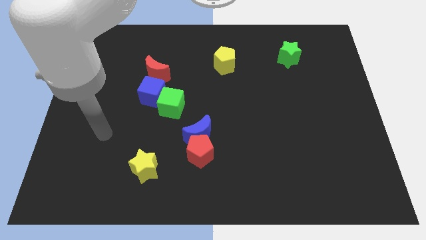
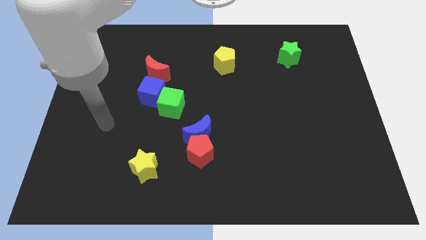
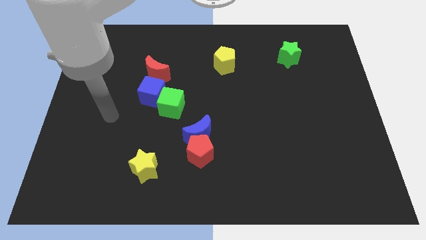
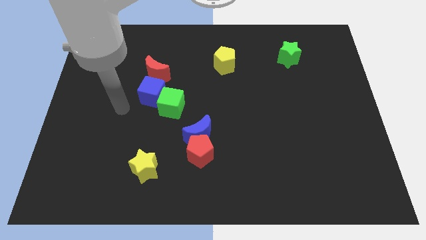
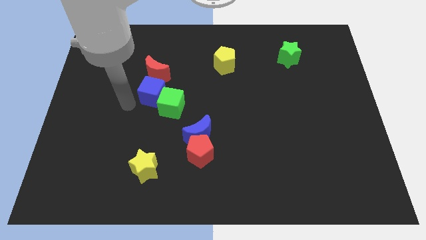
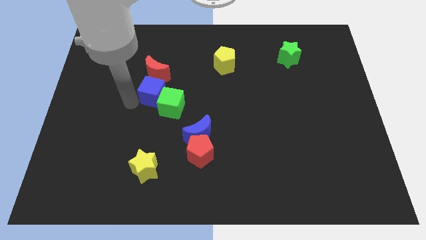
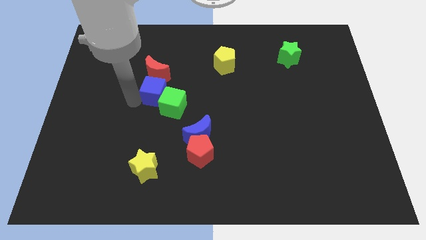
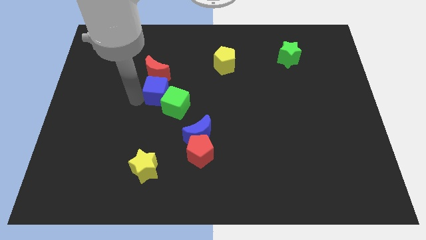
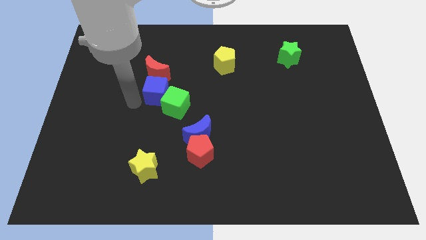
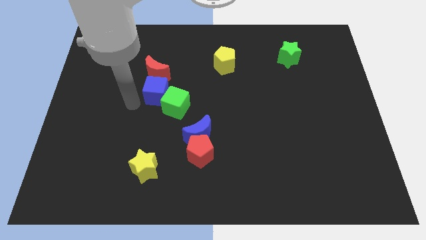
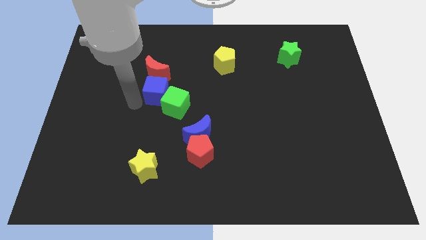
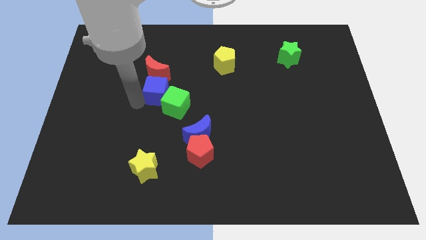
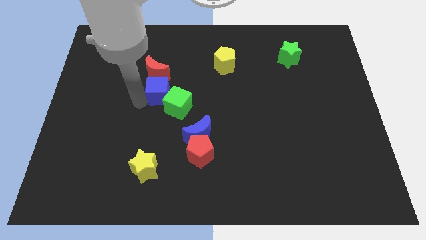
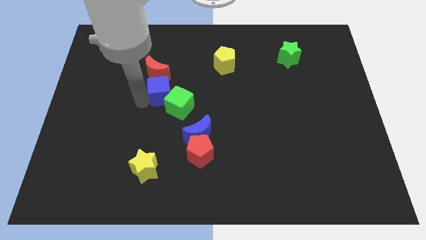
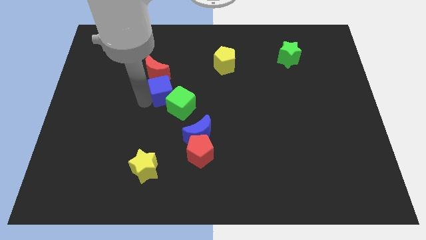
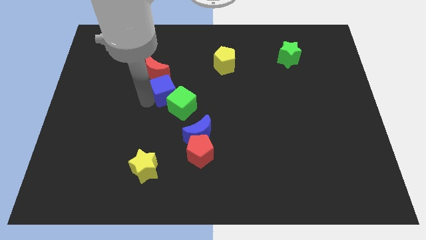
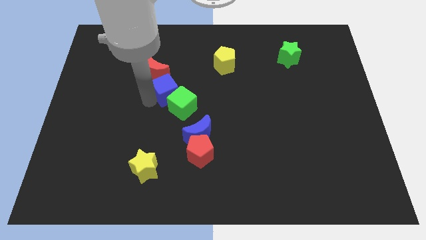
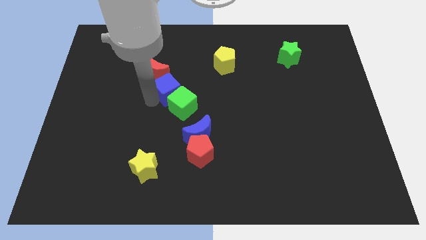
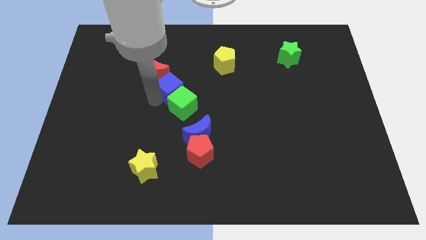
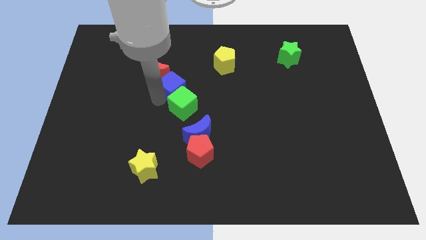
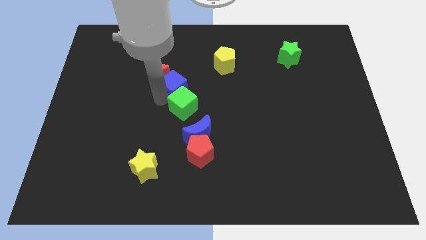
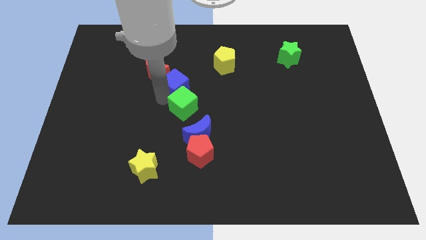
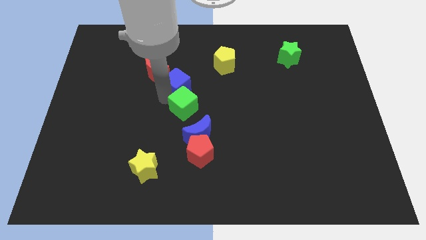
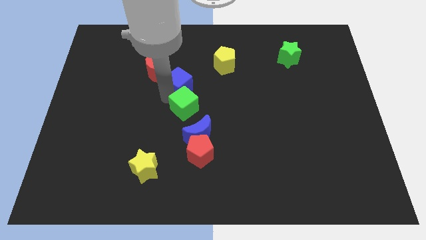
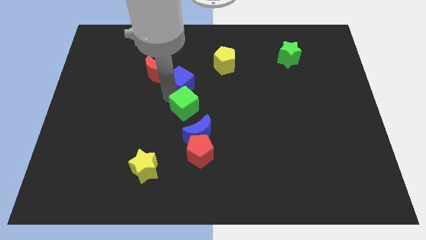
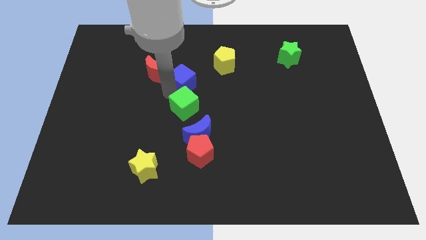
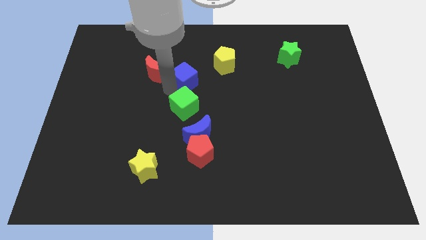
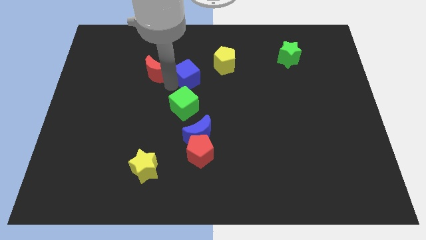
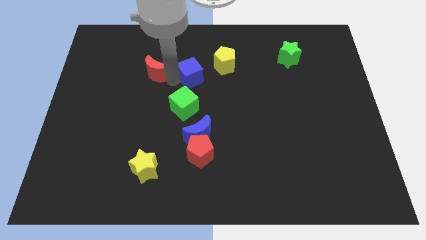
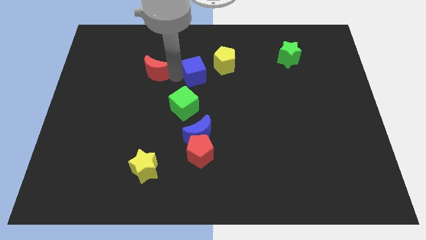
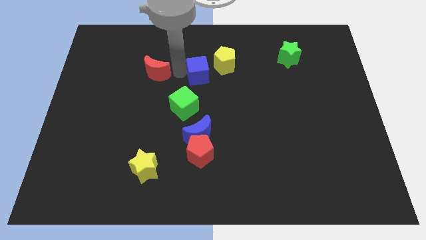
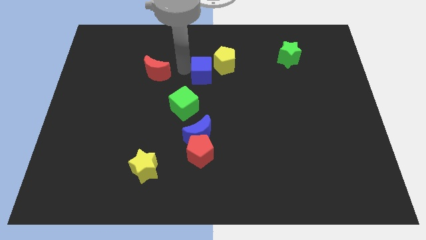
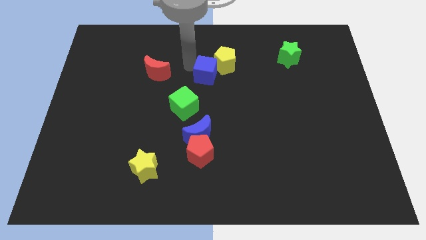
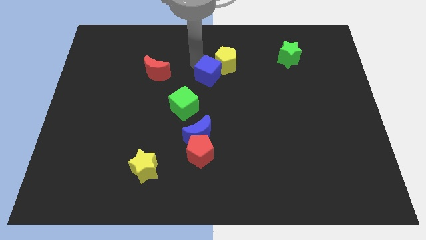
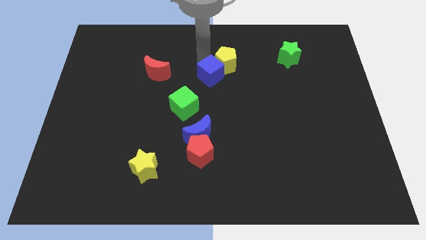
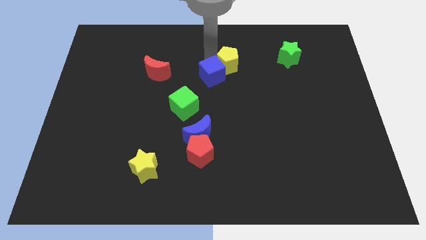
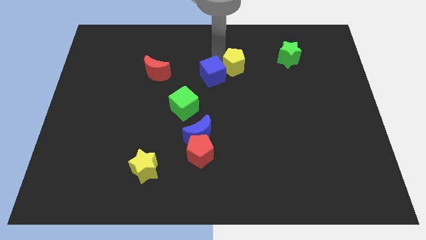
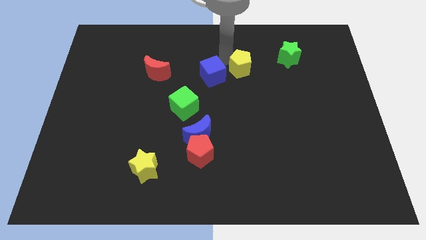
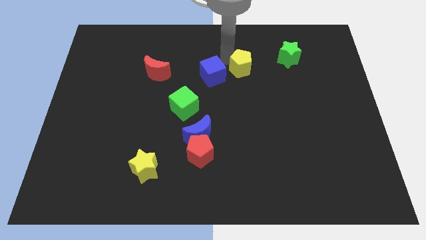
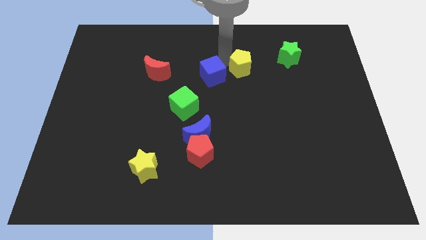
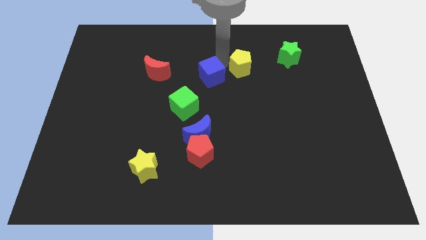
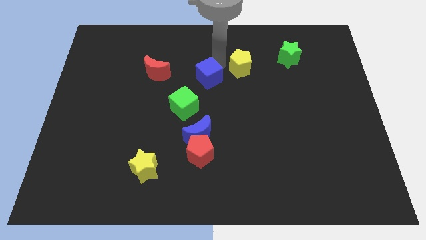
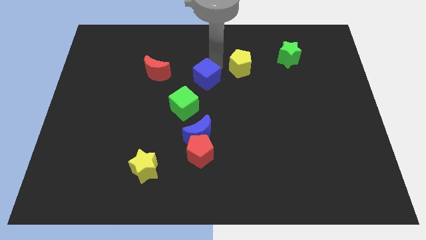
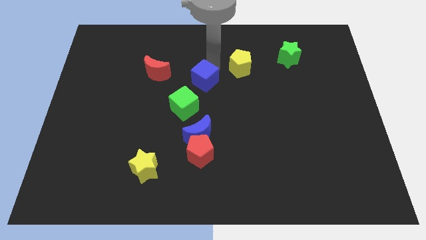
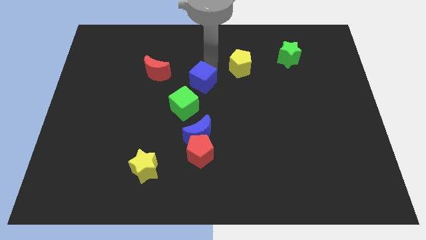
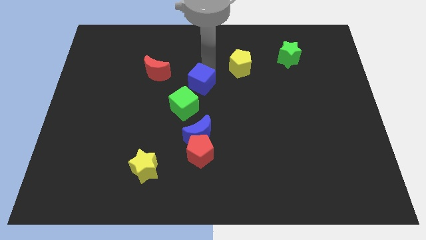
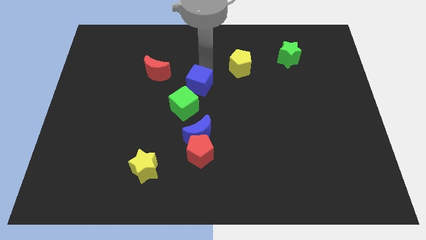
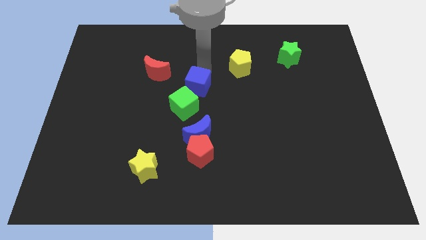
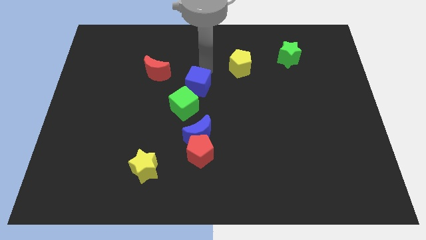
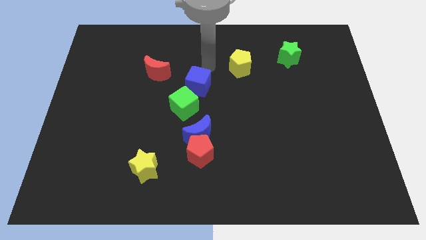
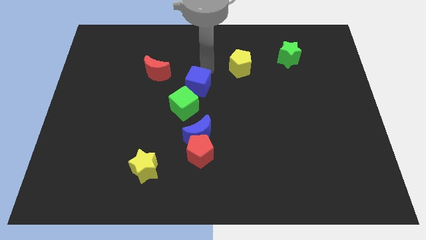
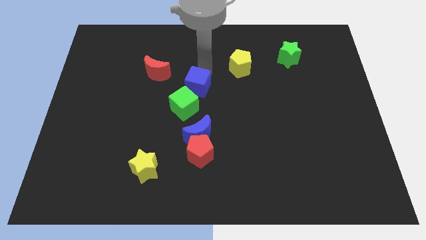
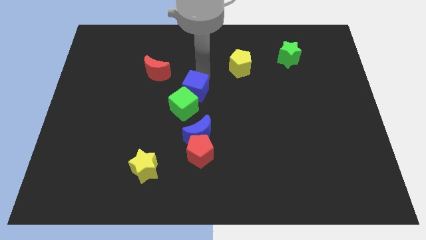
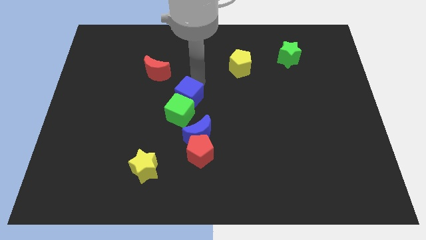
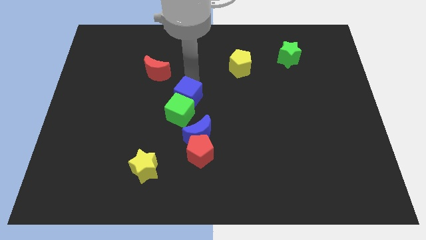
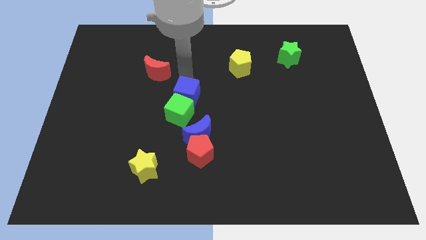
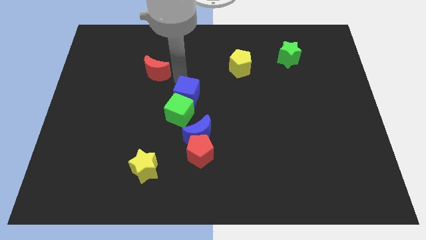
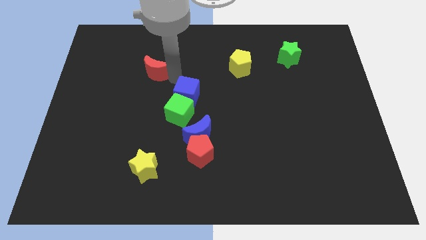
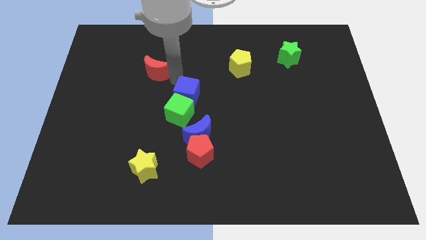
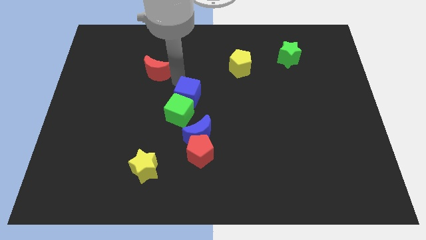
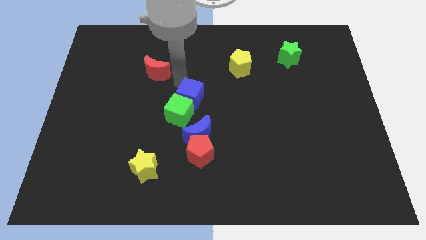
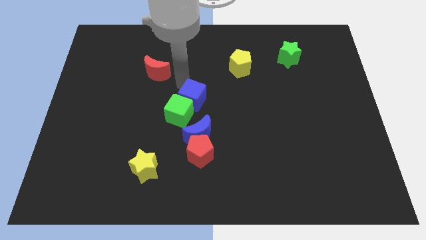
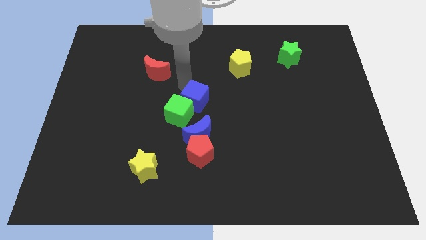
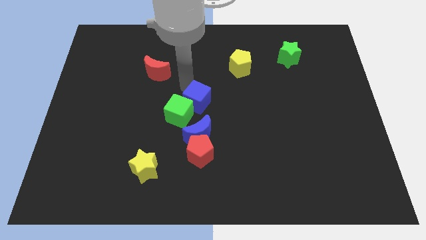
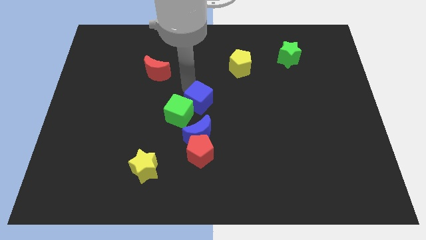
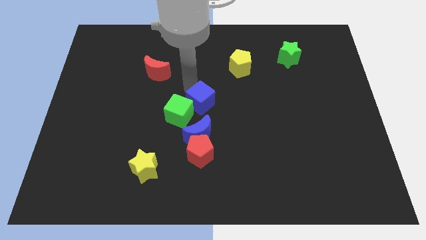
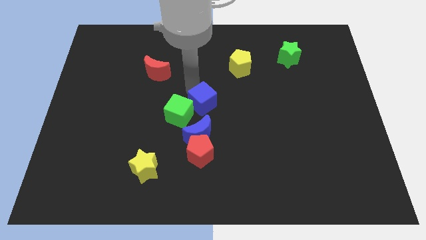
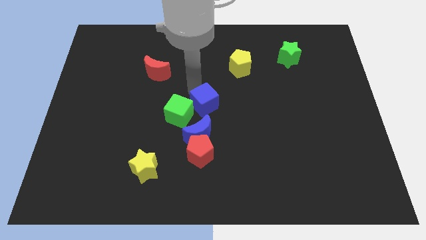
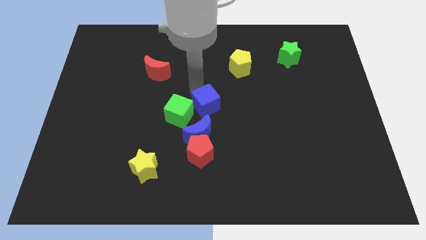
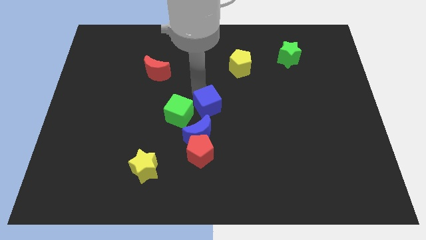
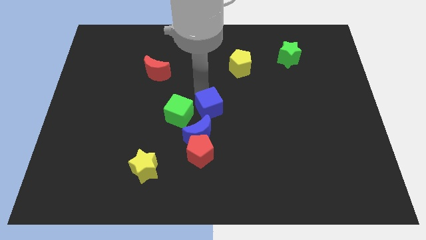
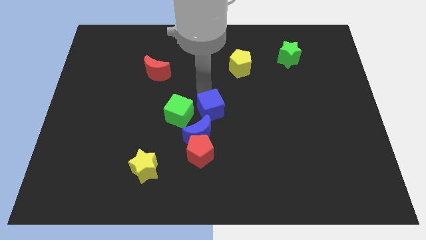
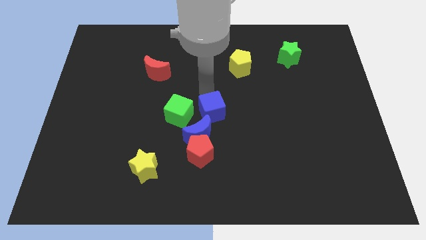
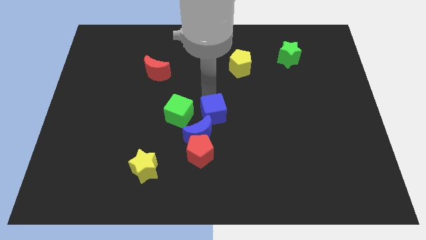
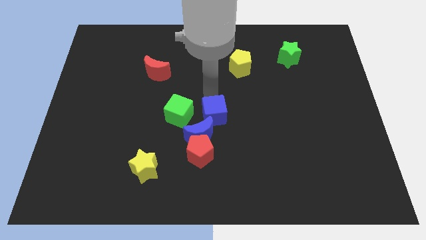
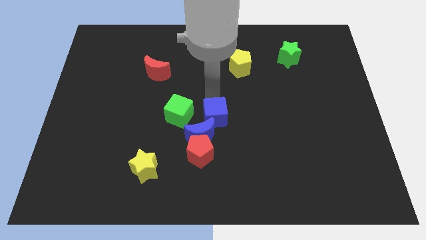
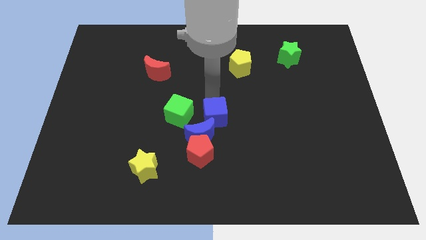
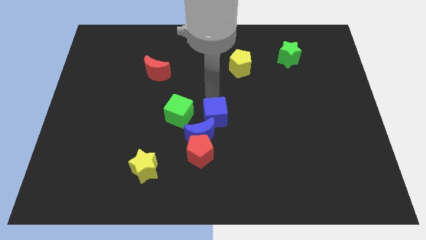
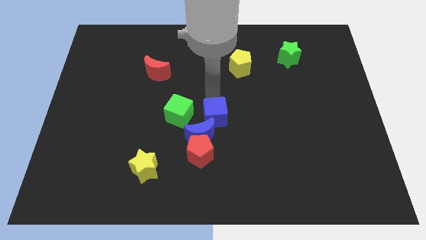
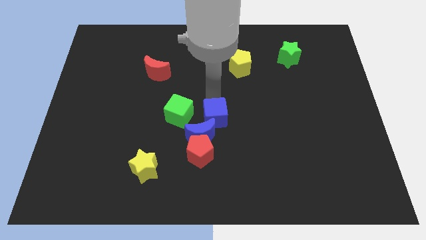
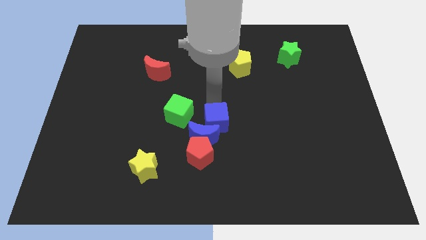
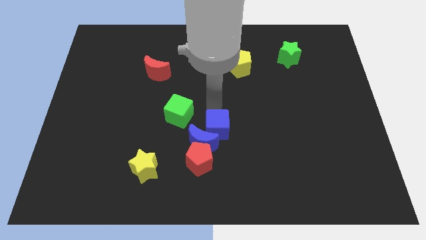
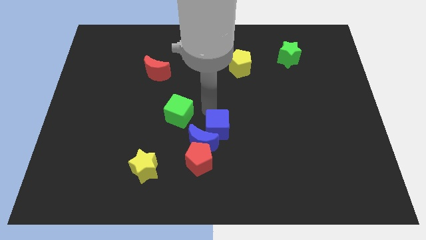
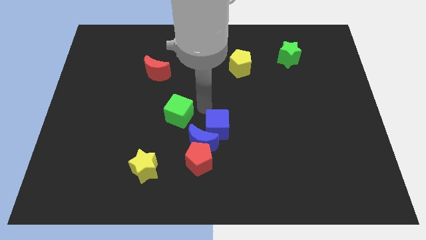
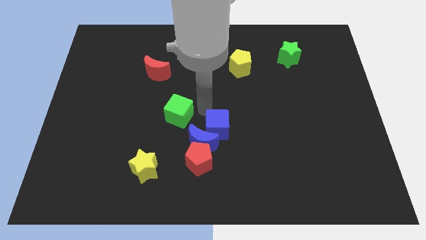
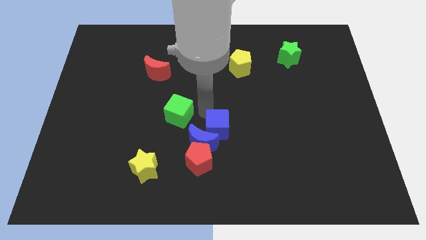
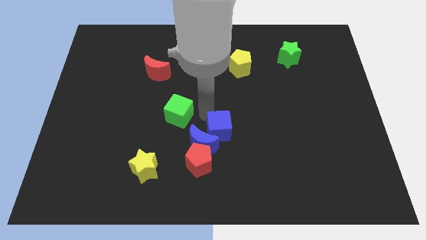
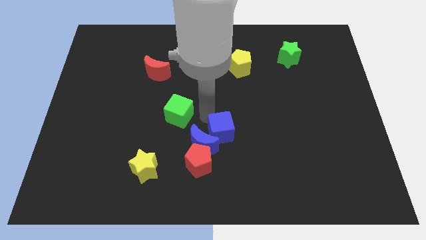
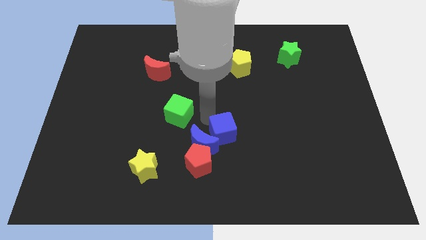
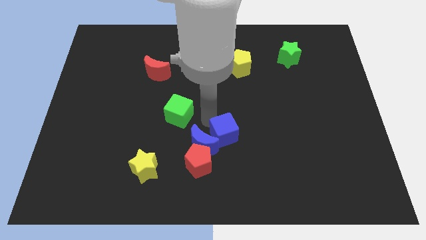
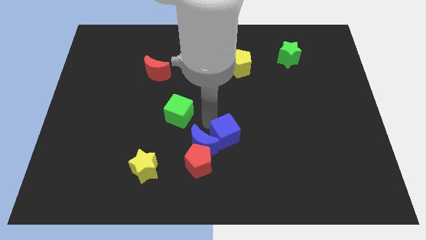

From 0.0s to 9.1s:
slide the blue cube down and to the right
